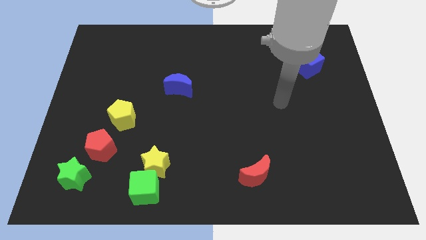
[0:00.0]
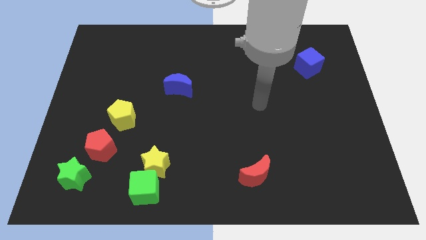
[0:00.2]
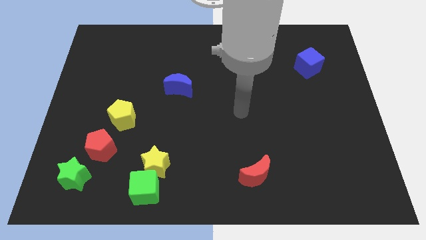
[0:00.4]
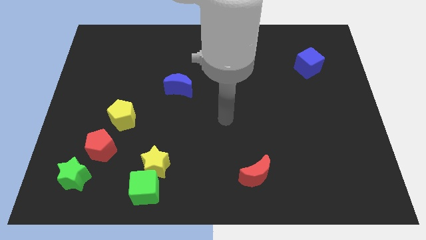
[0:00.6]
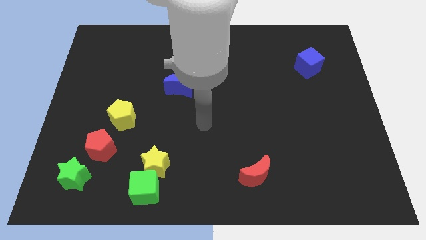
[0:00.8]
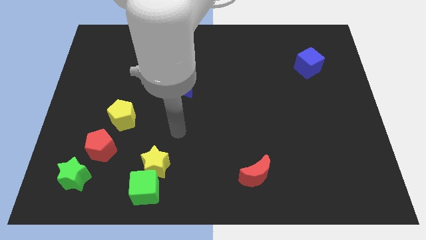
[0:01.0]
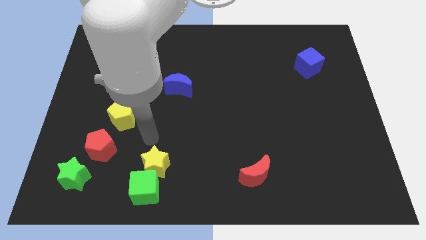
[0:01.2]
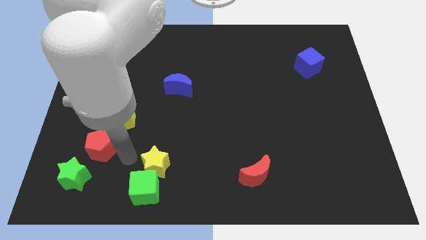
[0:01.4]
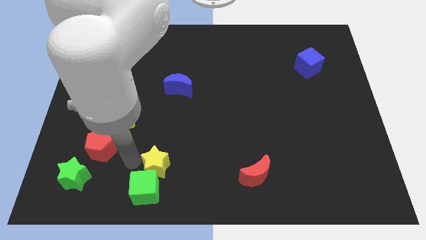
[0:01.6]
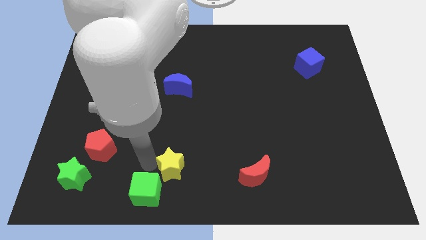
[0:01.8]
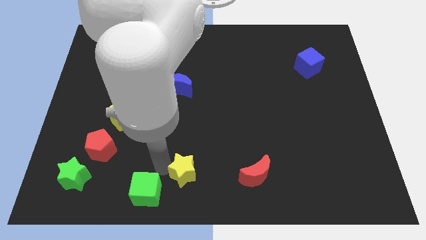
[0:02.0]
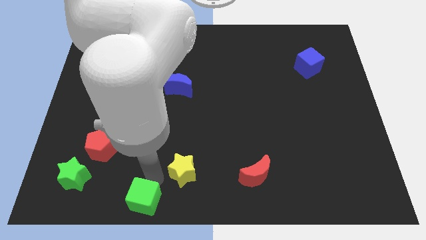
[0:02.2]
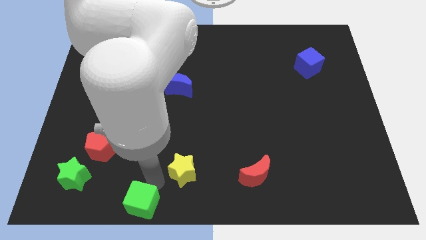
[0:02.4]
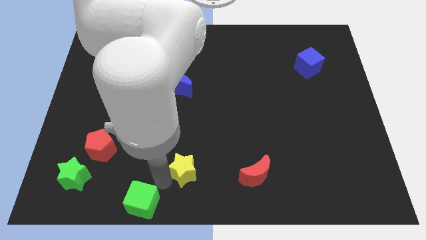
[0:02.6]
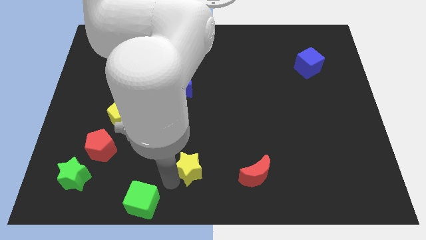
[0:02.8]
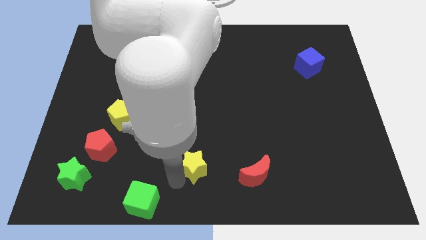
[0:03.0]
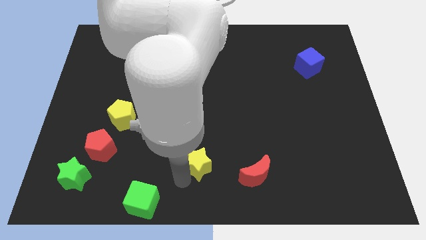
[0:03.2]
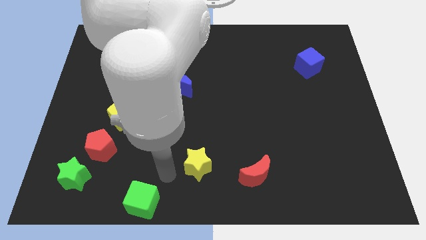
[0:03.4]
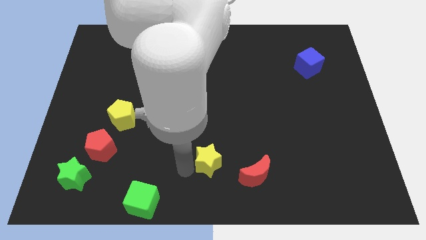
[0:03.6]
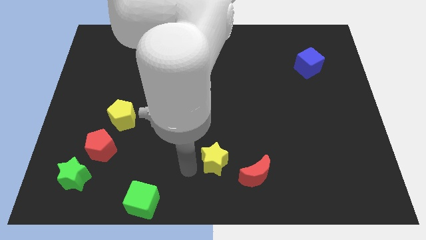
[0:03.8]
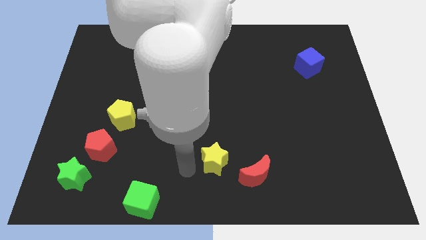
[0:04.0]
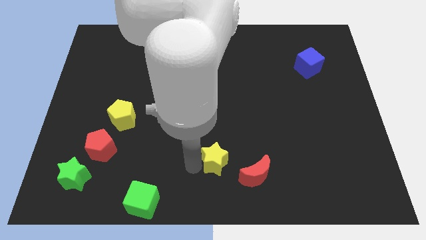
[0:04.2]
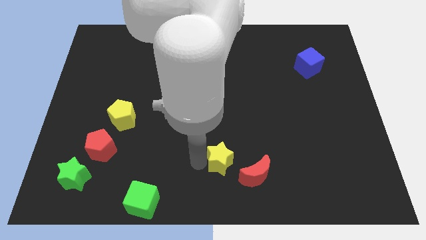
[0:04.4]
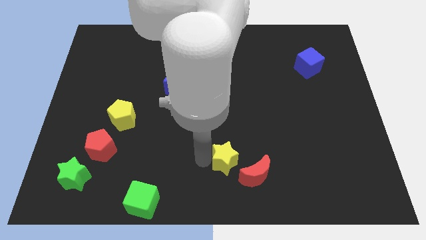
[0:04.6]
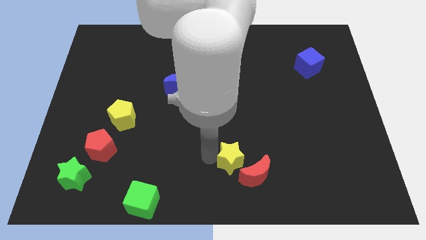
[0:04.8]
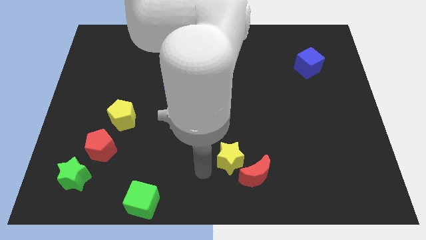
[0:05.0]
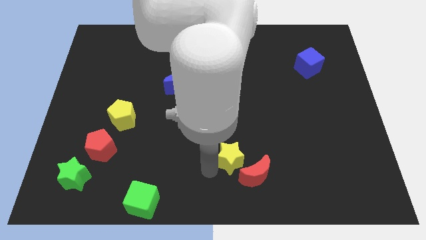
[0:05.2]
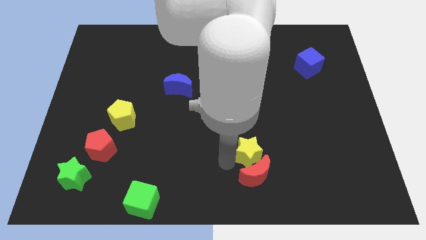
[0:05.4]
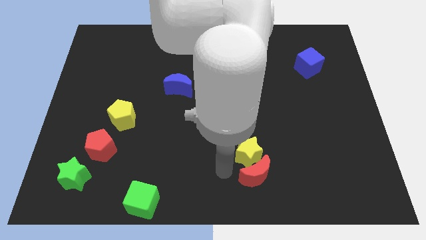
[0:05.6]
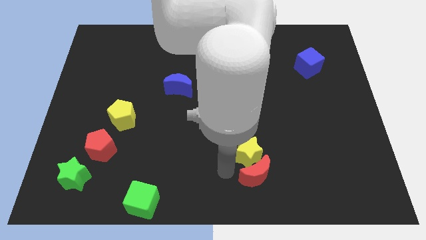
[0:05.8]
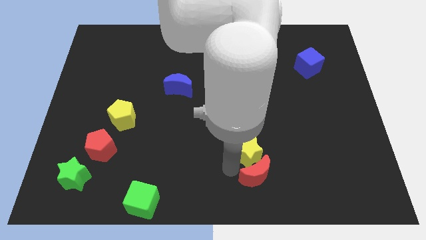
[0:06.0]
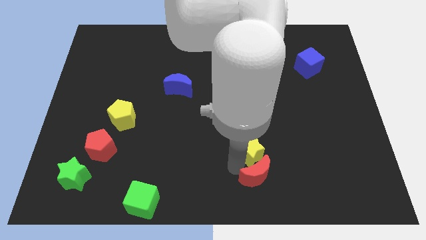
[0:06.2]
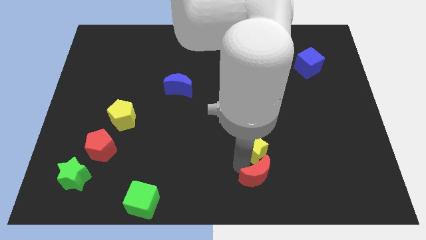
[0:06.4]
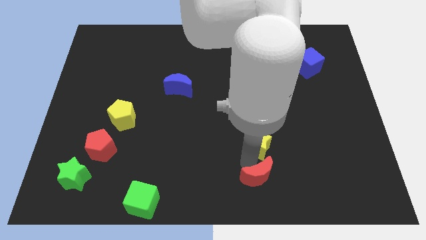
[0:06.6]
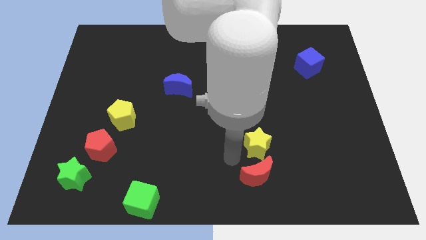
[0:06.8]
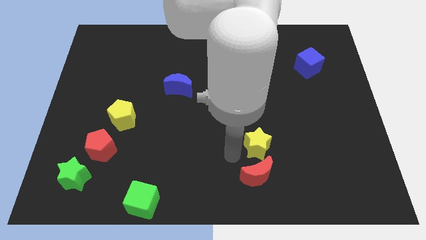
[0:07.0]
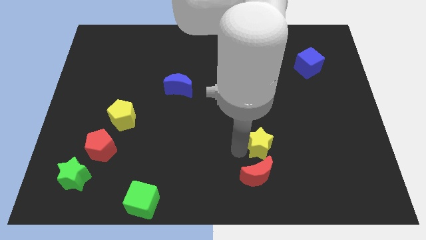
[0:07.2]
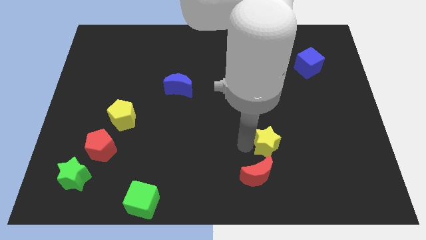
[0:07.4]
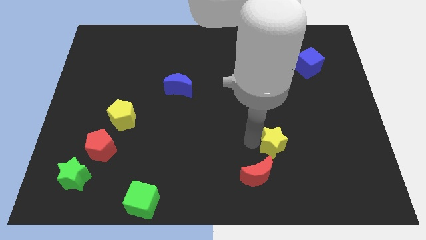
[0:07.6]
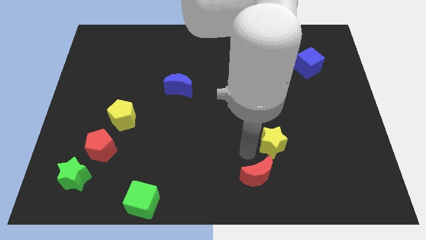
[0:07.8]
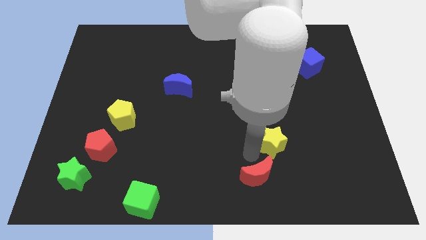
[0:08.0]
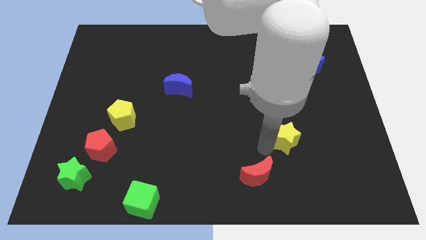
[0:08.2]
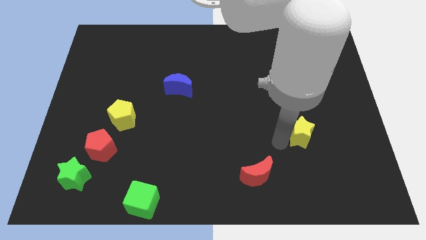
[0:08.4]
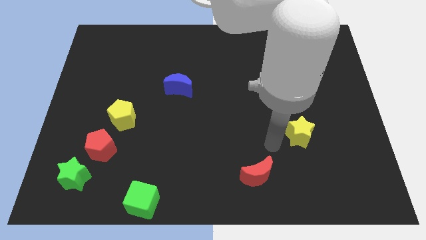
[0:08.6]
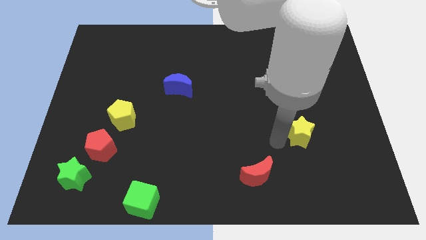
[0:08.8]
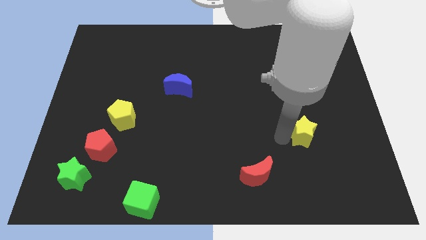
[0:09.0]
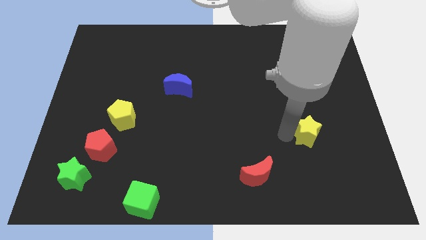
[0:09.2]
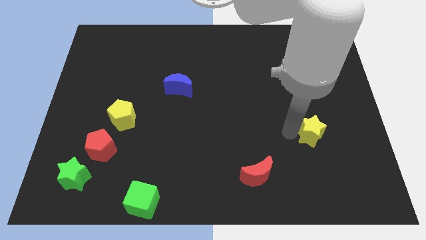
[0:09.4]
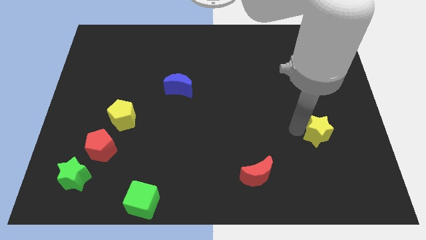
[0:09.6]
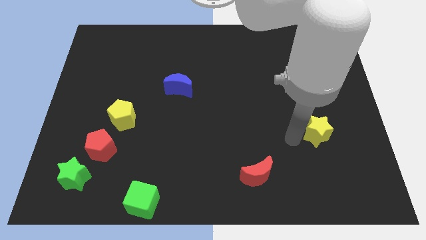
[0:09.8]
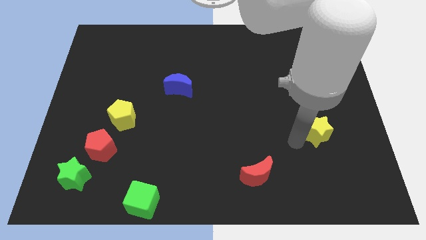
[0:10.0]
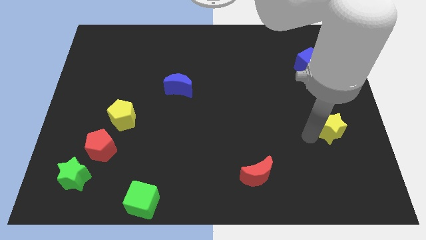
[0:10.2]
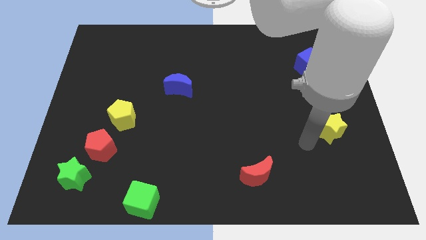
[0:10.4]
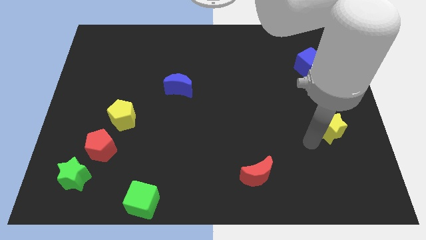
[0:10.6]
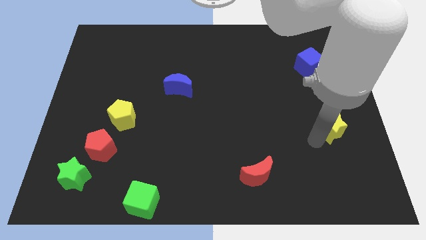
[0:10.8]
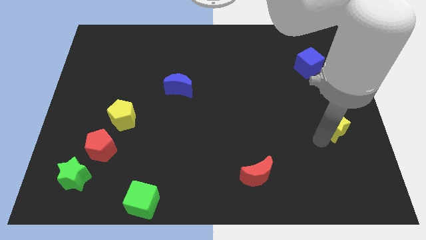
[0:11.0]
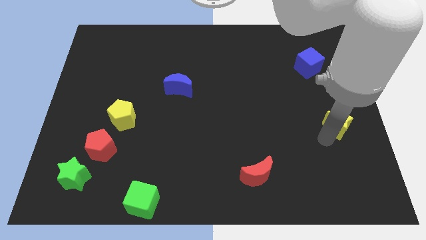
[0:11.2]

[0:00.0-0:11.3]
push the yellow star to the right side

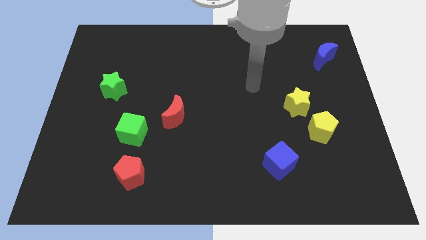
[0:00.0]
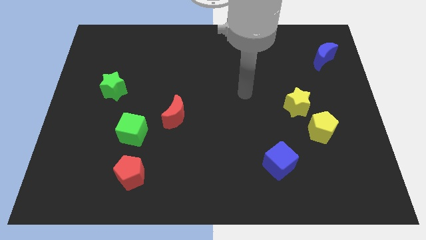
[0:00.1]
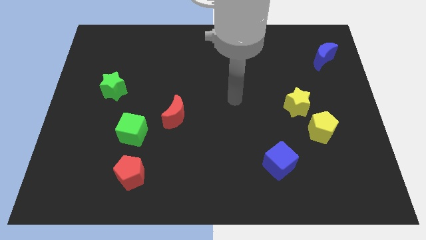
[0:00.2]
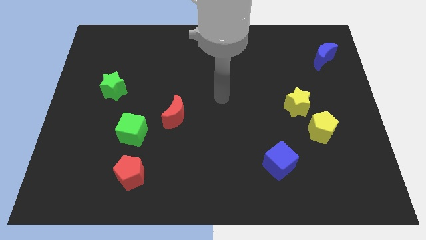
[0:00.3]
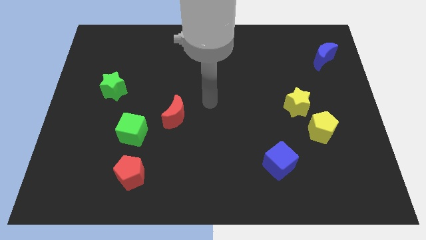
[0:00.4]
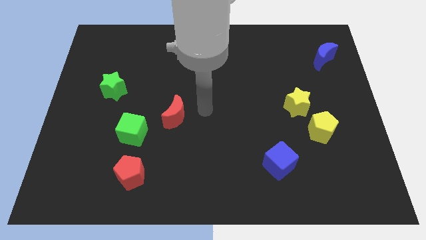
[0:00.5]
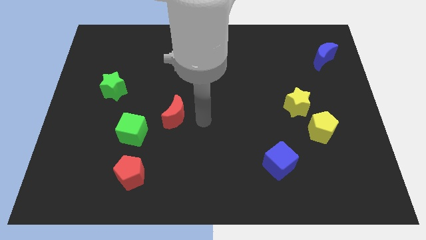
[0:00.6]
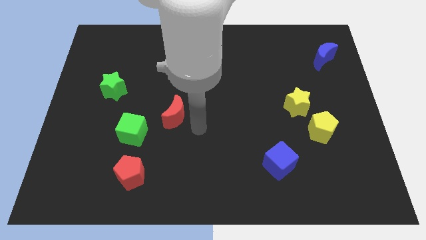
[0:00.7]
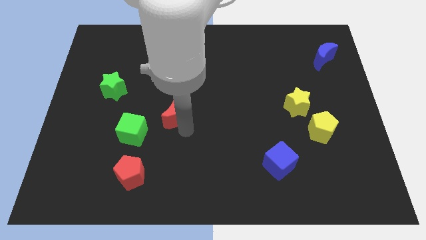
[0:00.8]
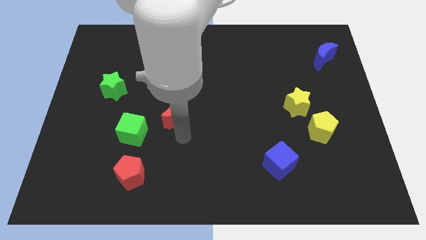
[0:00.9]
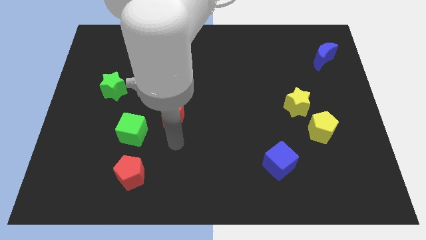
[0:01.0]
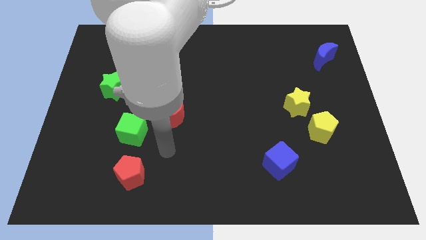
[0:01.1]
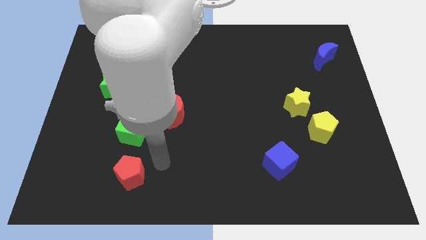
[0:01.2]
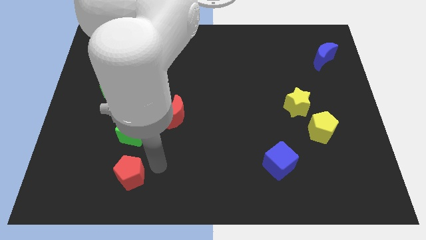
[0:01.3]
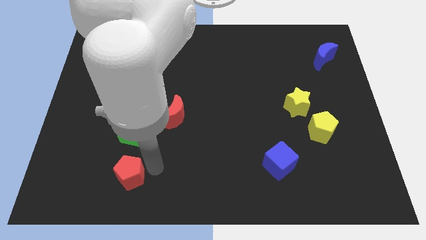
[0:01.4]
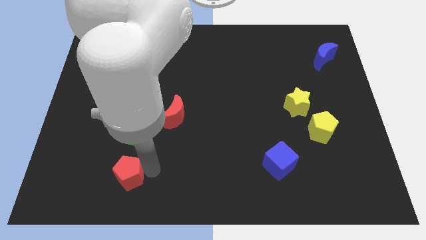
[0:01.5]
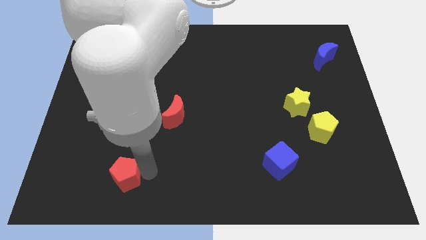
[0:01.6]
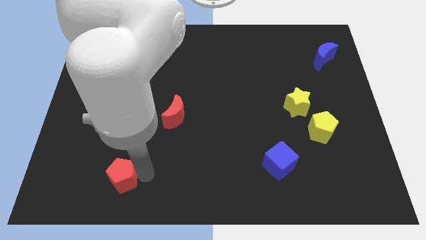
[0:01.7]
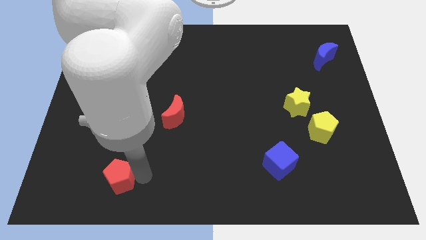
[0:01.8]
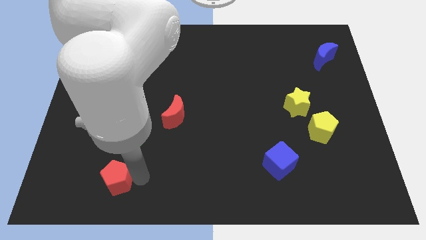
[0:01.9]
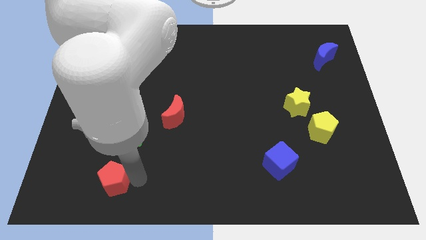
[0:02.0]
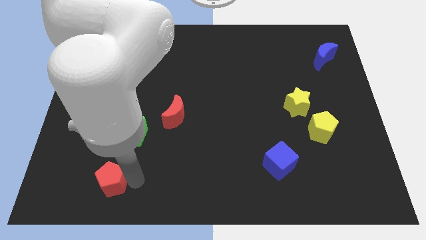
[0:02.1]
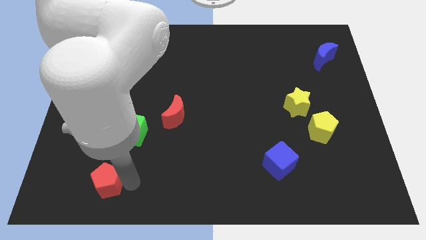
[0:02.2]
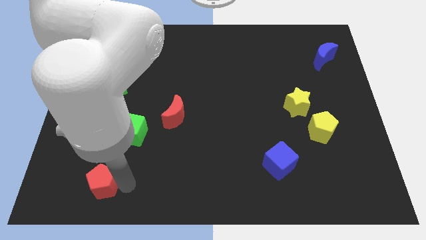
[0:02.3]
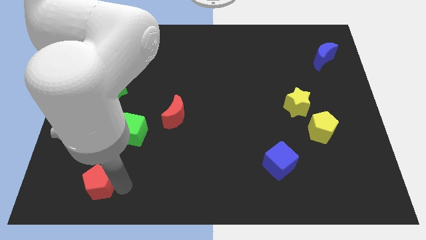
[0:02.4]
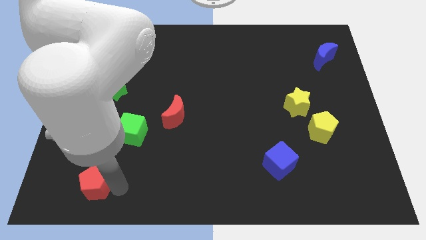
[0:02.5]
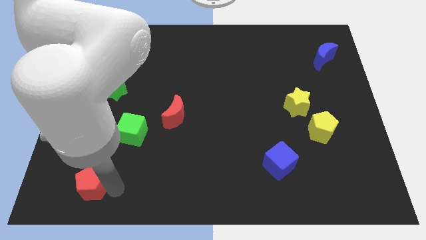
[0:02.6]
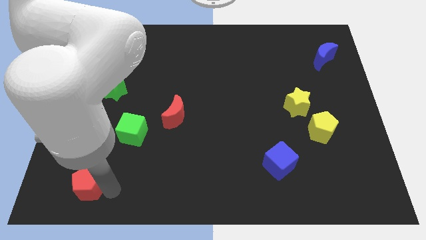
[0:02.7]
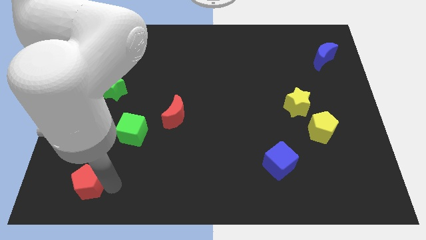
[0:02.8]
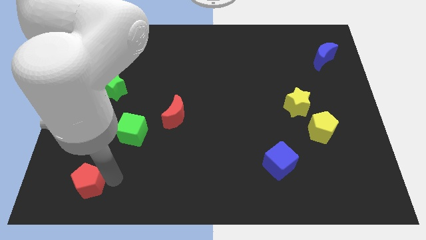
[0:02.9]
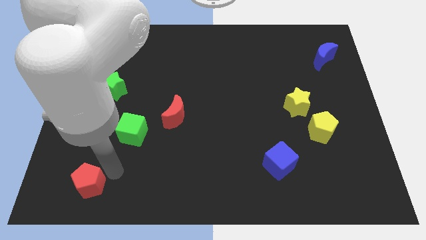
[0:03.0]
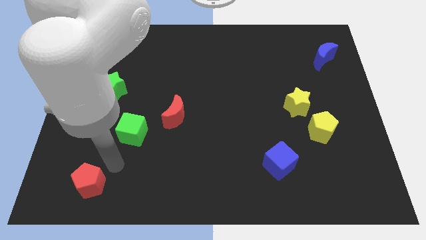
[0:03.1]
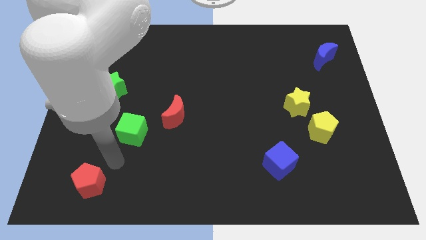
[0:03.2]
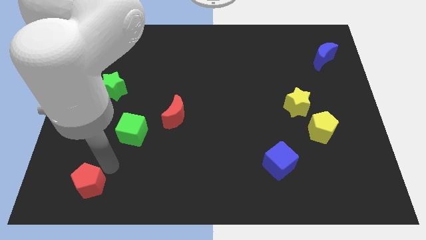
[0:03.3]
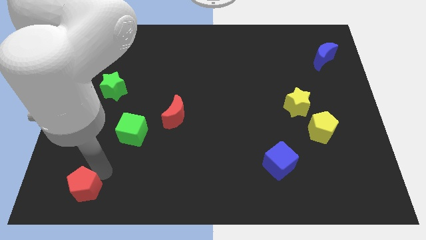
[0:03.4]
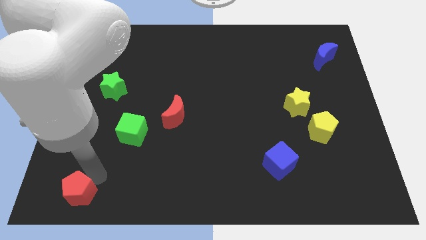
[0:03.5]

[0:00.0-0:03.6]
push the red pentagon to the lower left corner
